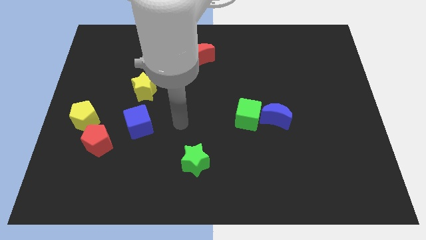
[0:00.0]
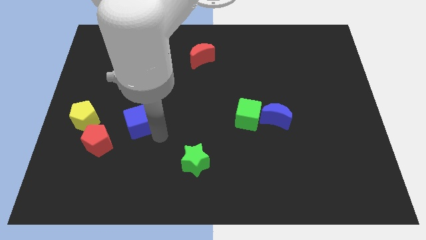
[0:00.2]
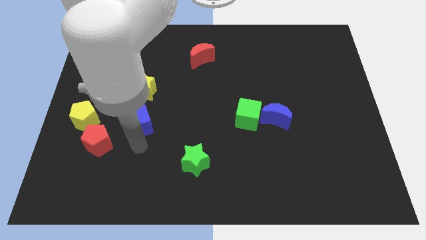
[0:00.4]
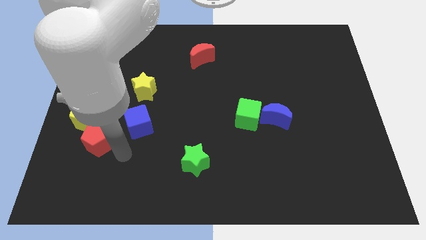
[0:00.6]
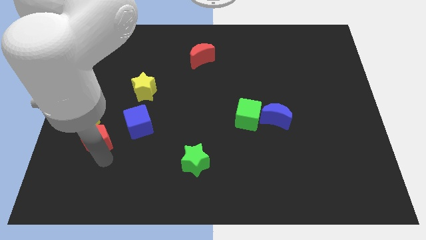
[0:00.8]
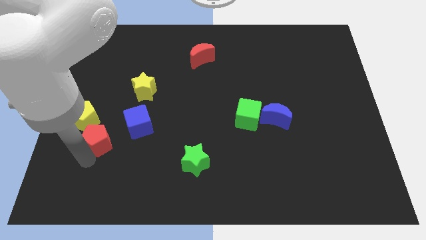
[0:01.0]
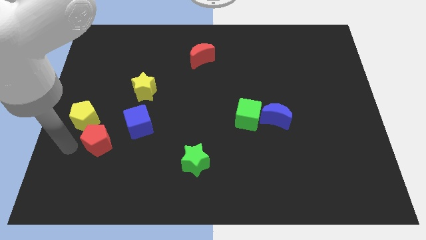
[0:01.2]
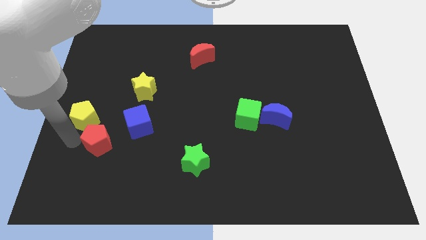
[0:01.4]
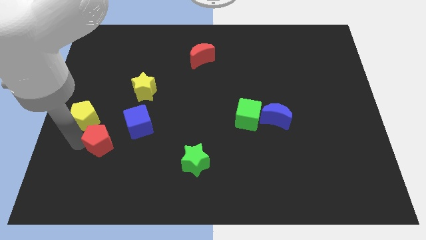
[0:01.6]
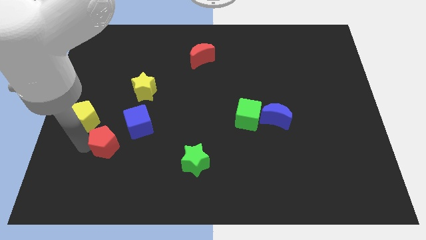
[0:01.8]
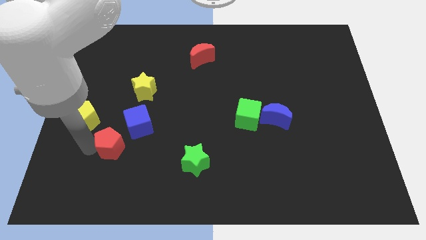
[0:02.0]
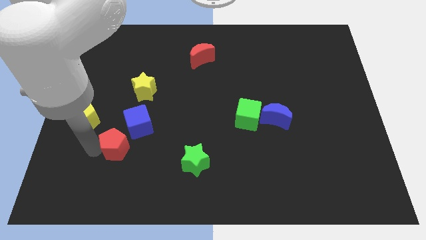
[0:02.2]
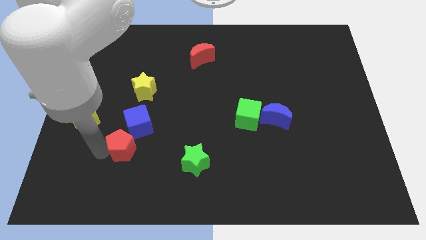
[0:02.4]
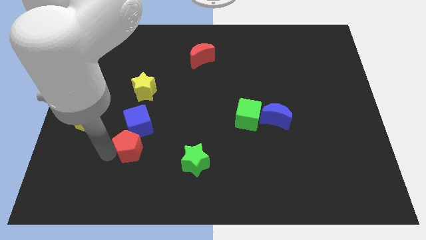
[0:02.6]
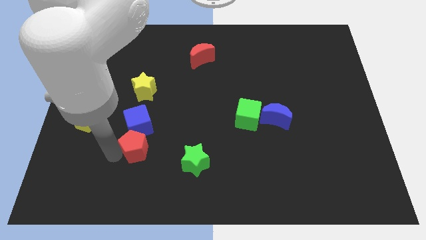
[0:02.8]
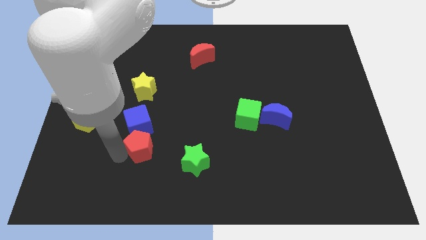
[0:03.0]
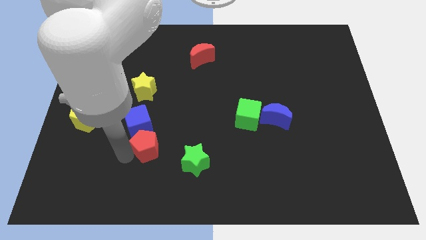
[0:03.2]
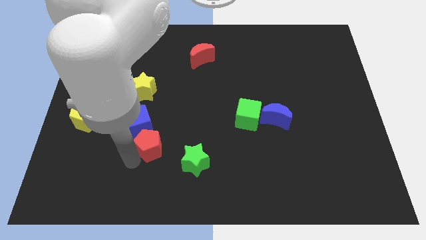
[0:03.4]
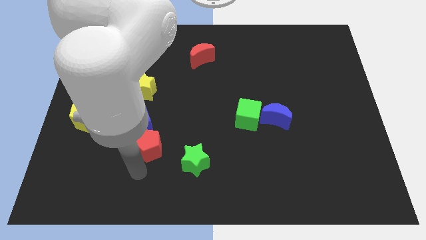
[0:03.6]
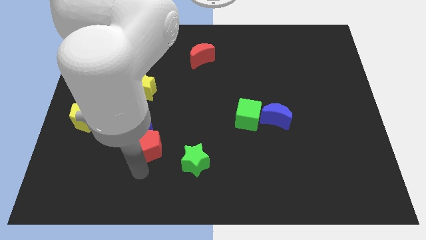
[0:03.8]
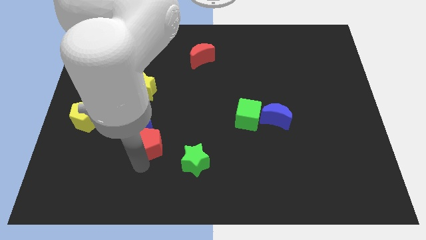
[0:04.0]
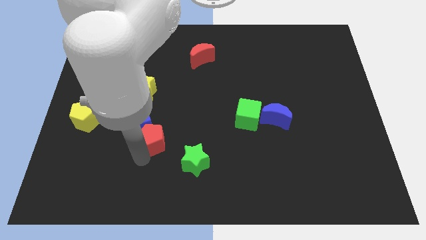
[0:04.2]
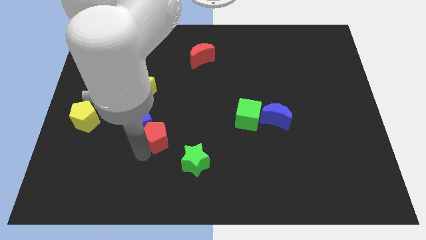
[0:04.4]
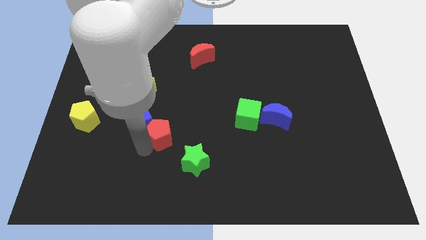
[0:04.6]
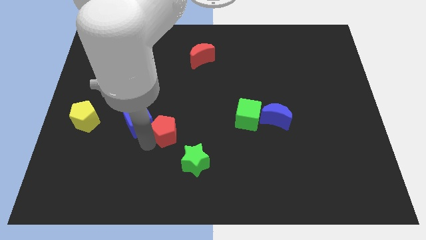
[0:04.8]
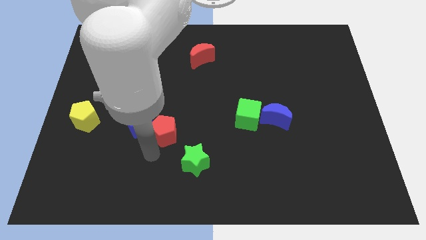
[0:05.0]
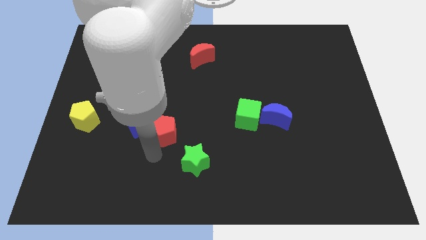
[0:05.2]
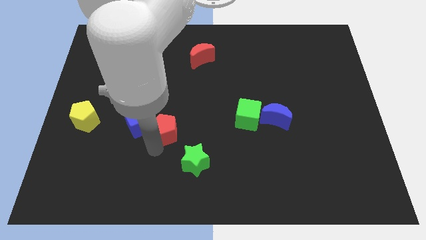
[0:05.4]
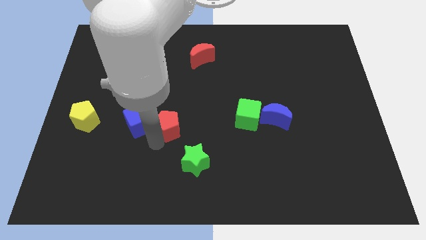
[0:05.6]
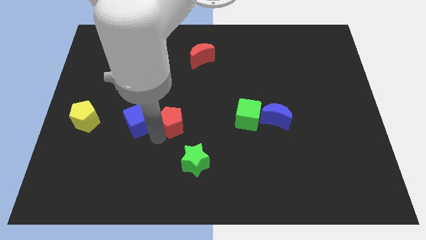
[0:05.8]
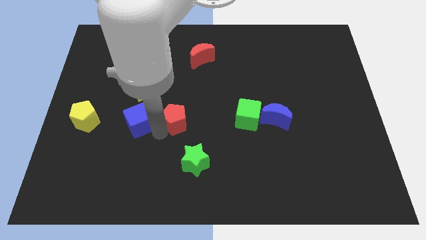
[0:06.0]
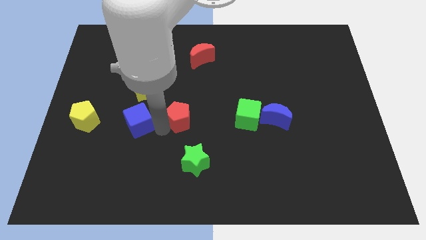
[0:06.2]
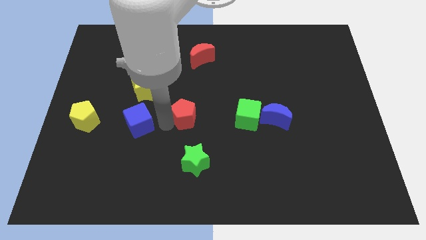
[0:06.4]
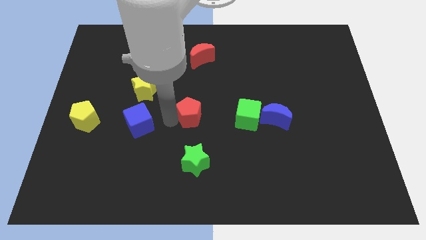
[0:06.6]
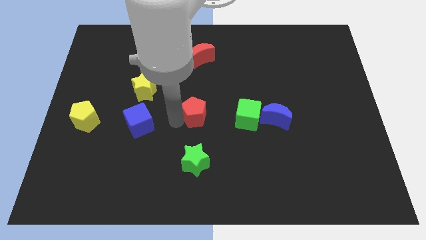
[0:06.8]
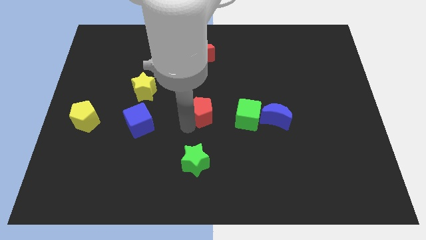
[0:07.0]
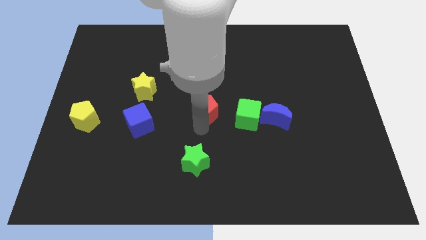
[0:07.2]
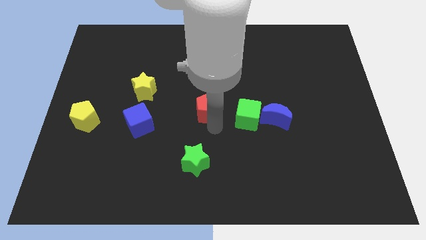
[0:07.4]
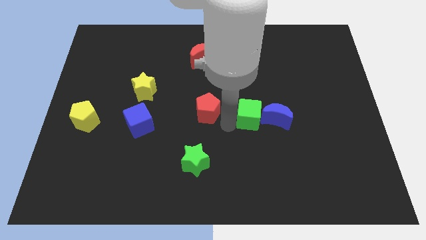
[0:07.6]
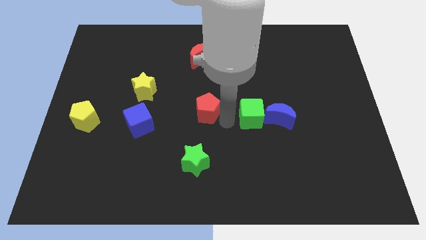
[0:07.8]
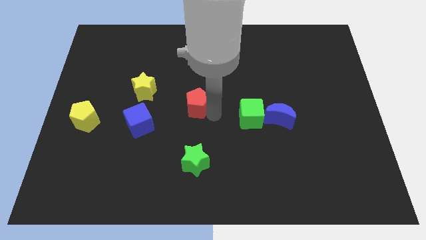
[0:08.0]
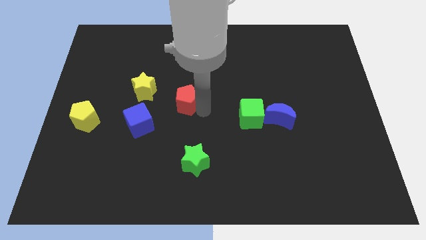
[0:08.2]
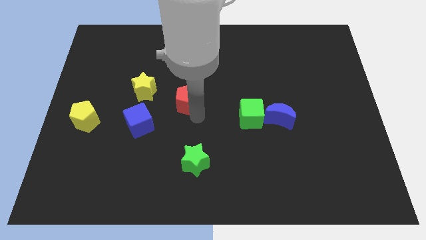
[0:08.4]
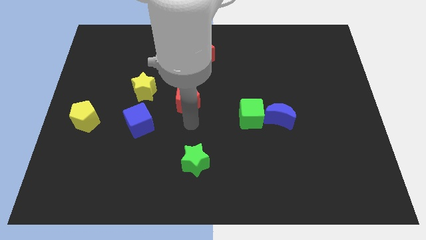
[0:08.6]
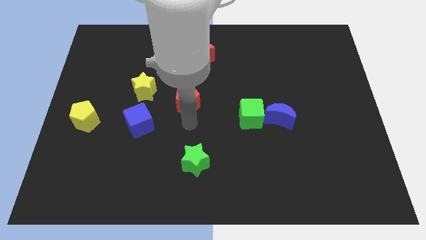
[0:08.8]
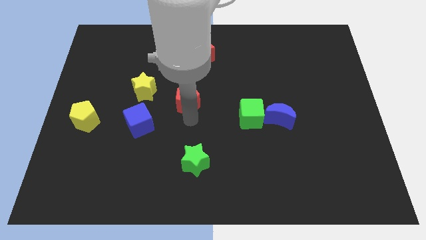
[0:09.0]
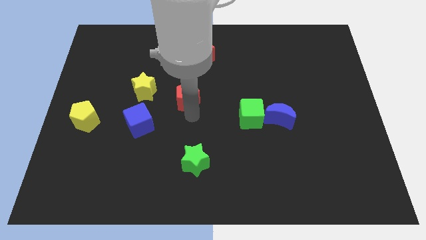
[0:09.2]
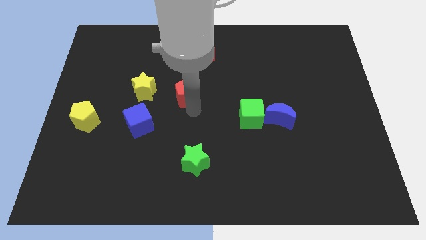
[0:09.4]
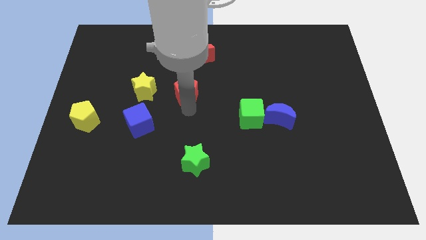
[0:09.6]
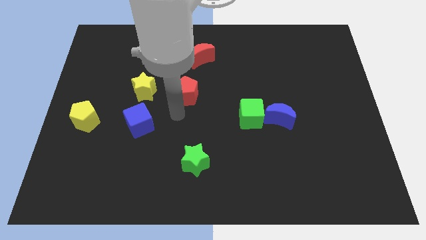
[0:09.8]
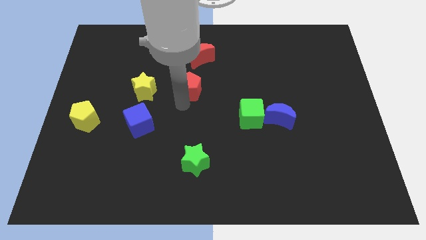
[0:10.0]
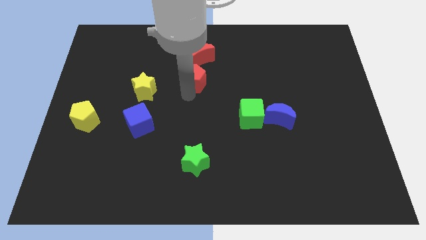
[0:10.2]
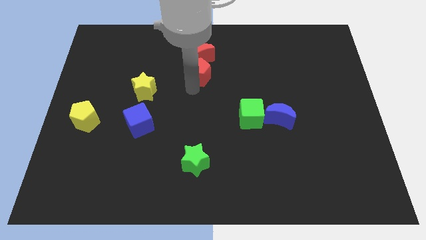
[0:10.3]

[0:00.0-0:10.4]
move the red pentagon close to the red moon

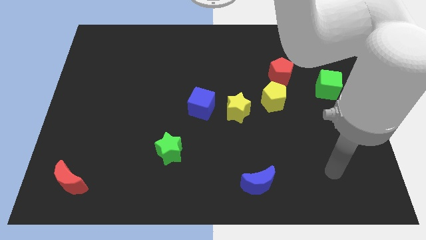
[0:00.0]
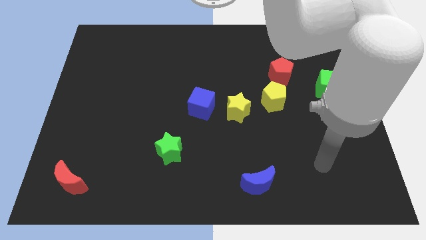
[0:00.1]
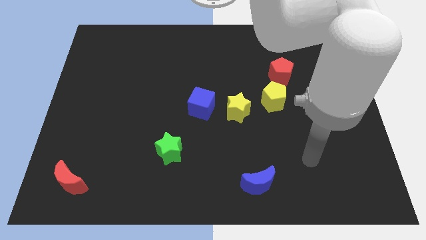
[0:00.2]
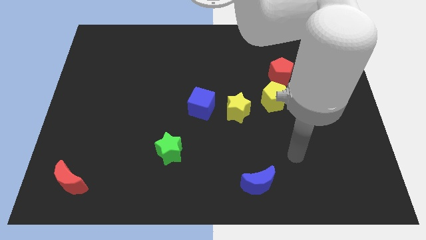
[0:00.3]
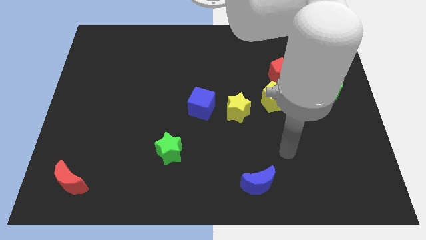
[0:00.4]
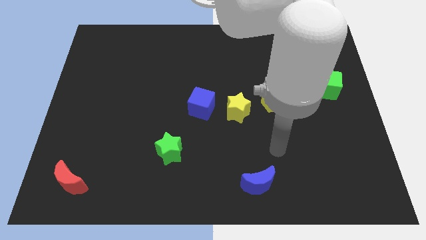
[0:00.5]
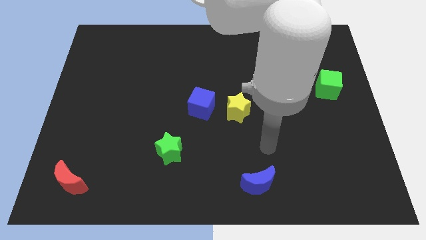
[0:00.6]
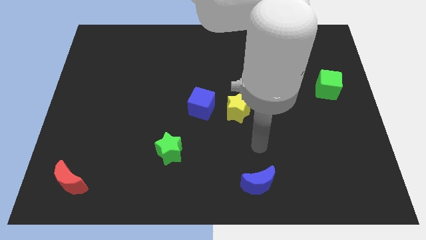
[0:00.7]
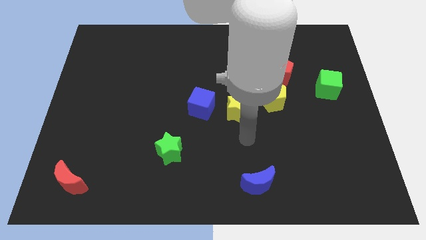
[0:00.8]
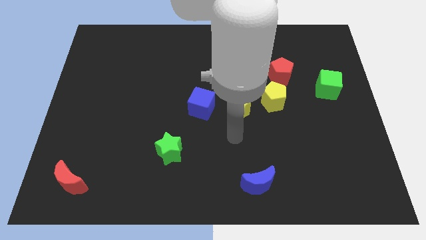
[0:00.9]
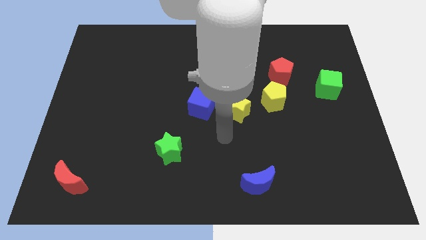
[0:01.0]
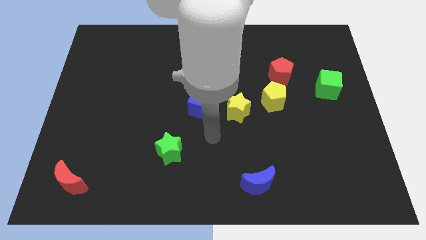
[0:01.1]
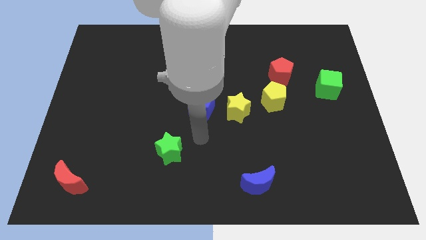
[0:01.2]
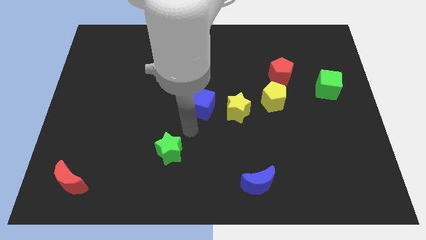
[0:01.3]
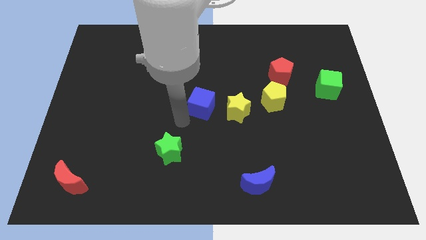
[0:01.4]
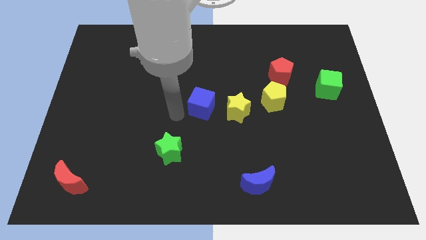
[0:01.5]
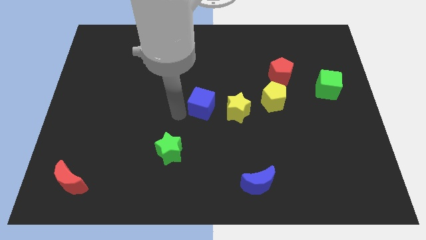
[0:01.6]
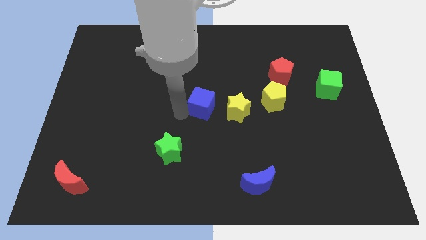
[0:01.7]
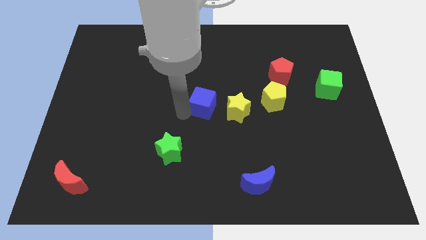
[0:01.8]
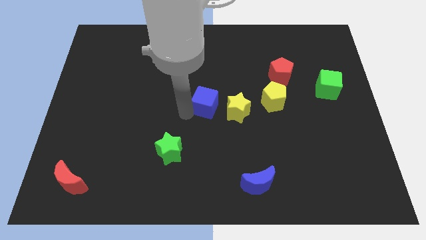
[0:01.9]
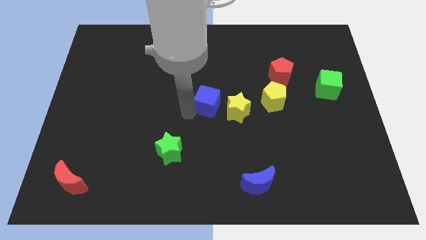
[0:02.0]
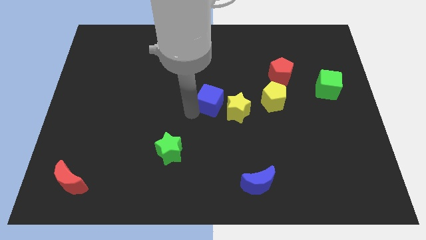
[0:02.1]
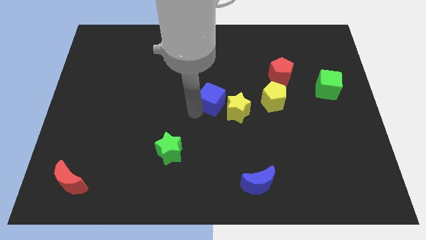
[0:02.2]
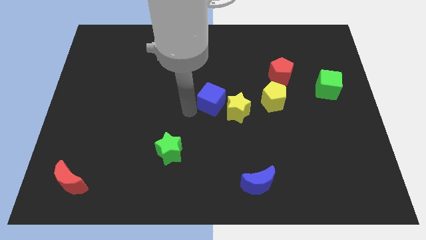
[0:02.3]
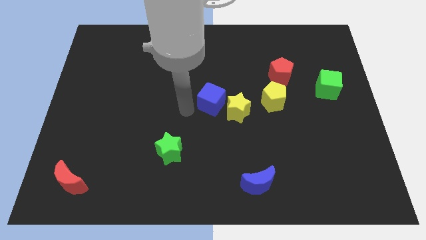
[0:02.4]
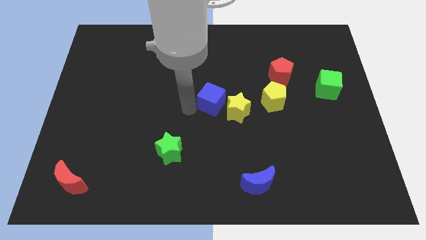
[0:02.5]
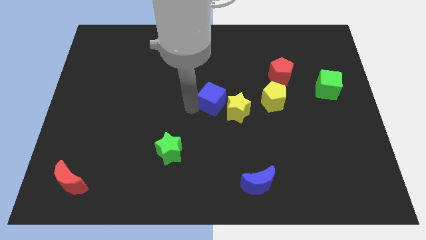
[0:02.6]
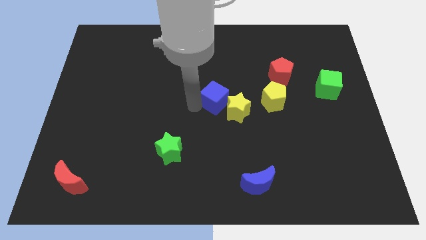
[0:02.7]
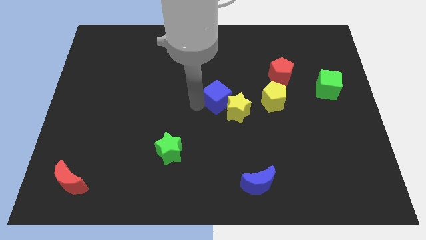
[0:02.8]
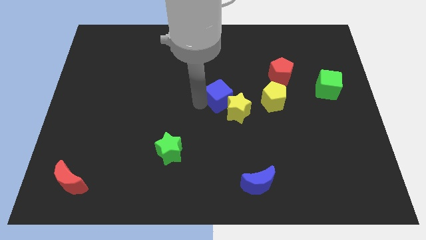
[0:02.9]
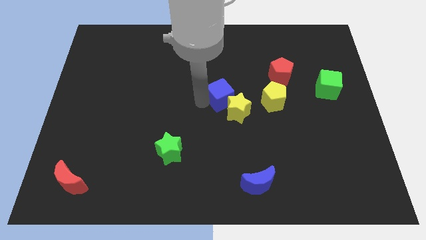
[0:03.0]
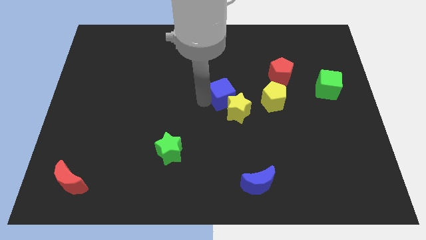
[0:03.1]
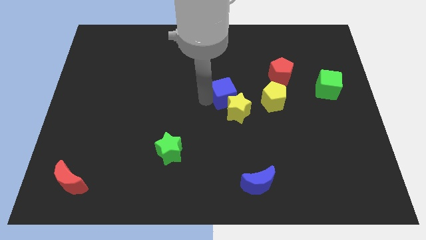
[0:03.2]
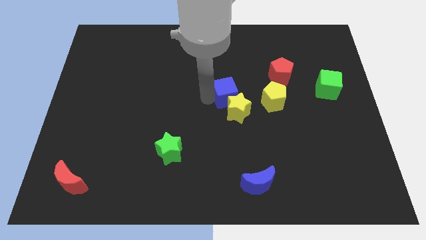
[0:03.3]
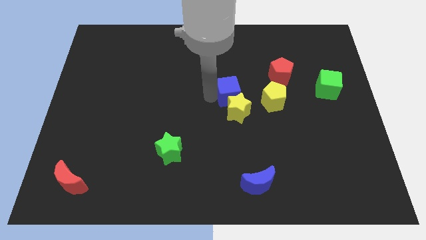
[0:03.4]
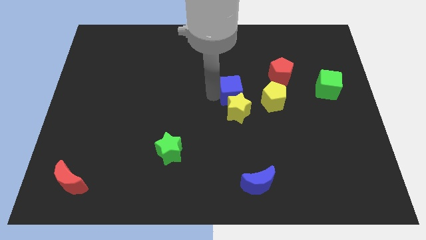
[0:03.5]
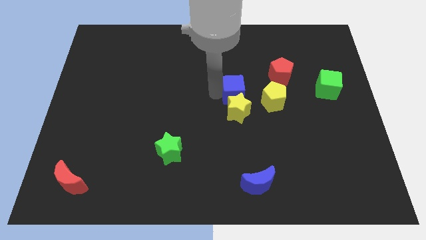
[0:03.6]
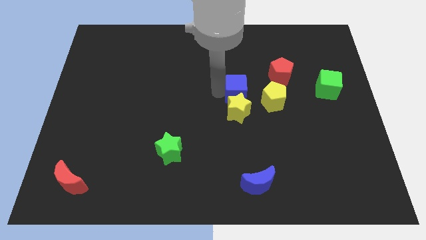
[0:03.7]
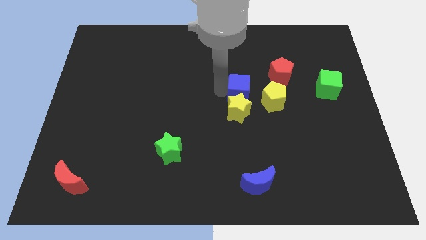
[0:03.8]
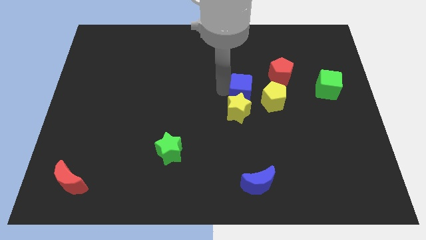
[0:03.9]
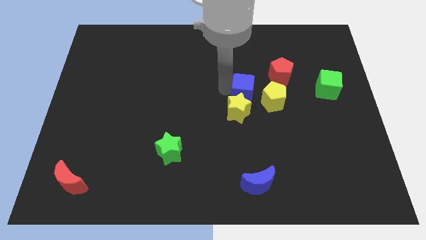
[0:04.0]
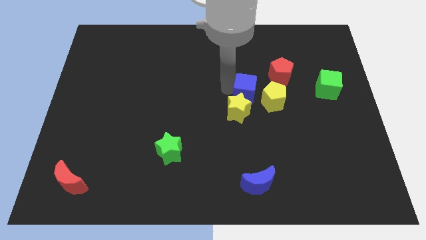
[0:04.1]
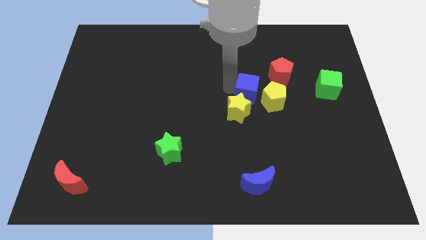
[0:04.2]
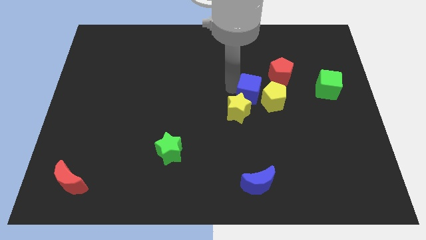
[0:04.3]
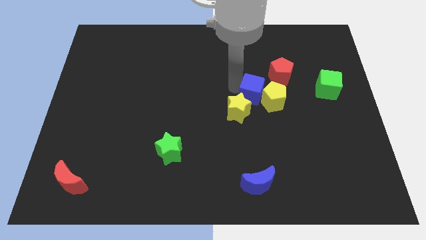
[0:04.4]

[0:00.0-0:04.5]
push the blue cube to the yellow pentagon
